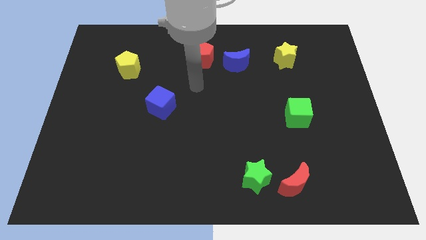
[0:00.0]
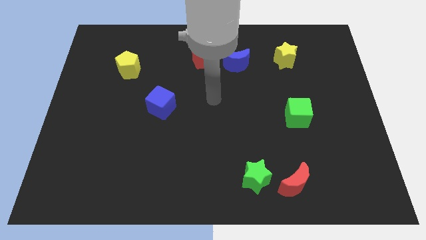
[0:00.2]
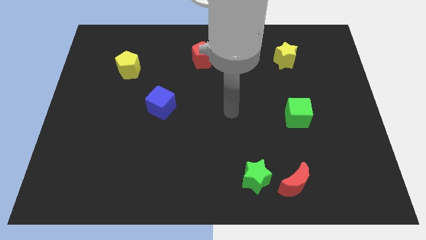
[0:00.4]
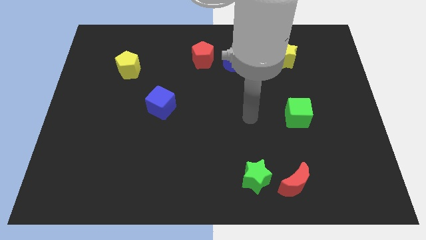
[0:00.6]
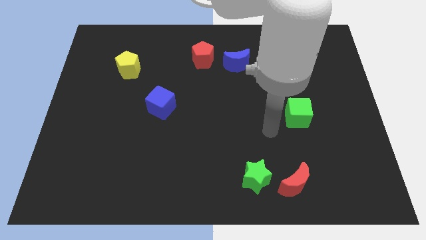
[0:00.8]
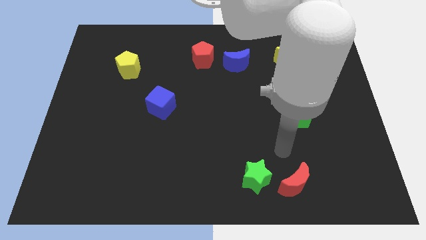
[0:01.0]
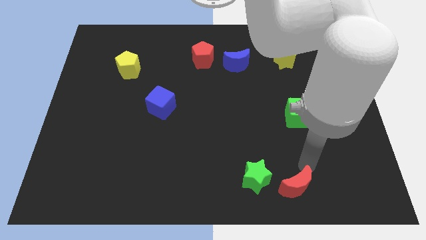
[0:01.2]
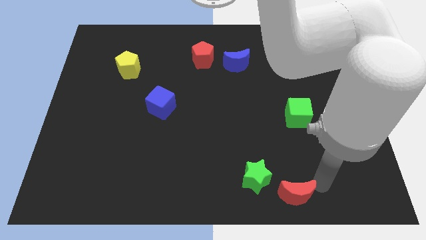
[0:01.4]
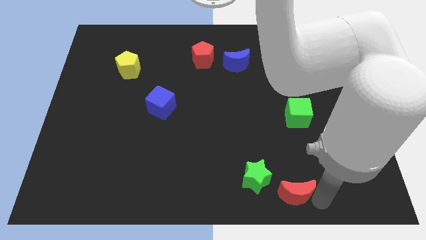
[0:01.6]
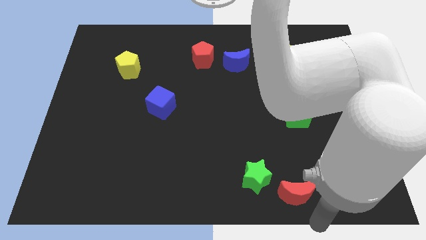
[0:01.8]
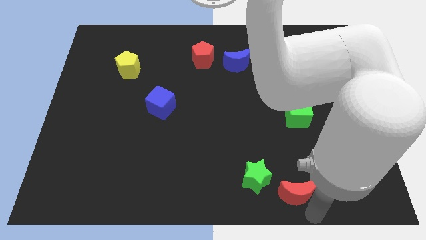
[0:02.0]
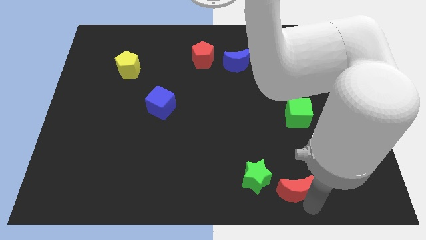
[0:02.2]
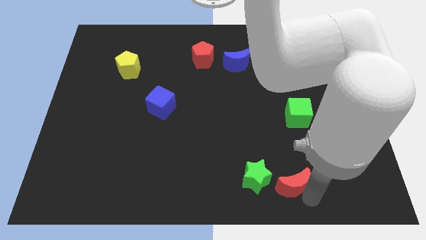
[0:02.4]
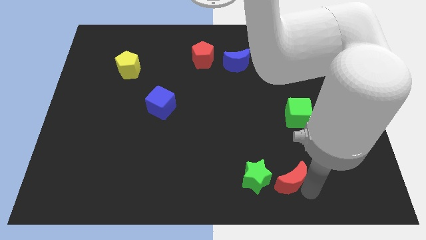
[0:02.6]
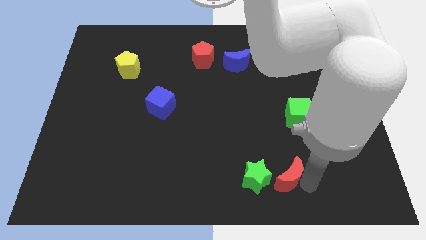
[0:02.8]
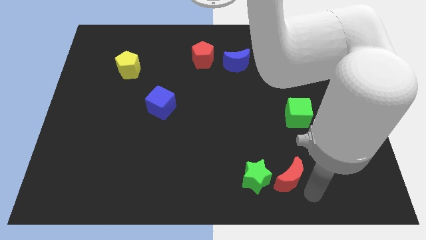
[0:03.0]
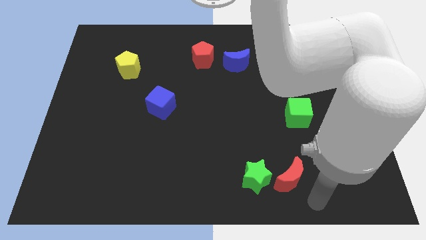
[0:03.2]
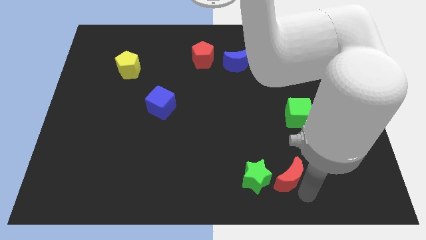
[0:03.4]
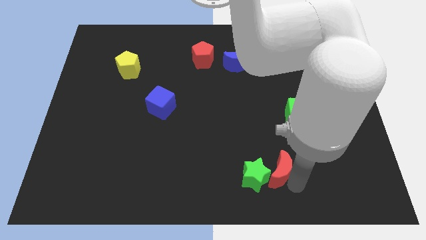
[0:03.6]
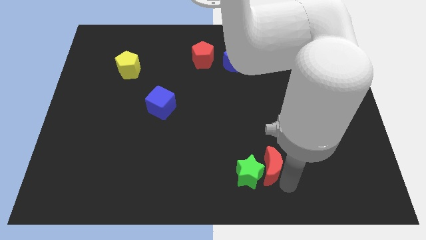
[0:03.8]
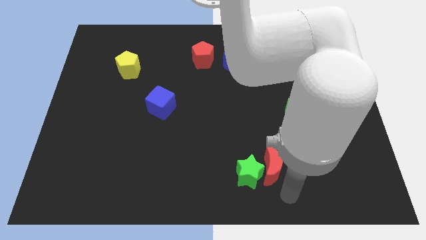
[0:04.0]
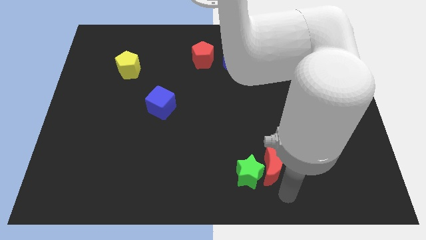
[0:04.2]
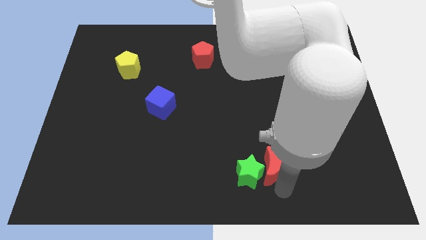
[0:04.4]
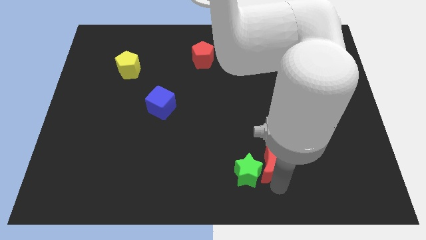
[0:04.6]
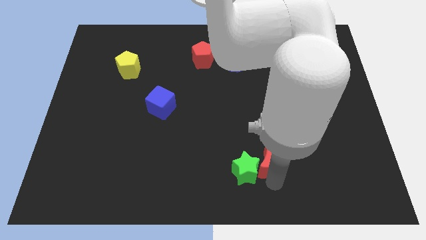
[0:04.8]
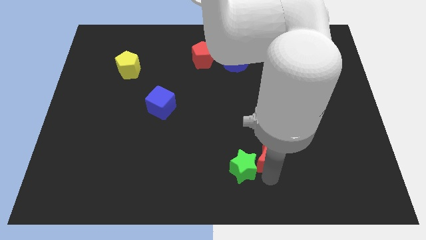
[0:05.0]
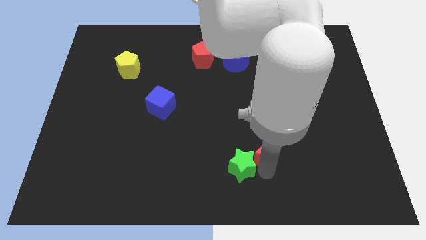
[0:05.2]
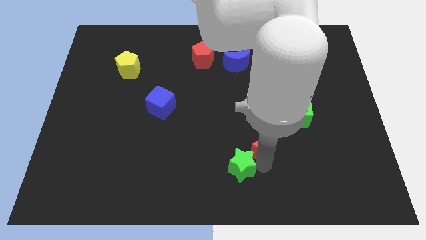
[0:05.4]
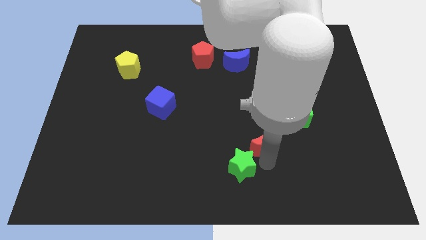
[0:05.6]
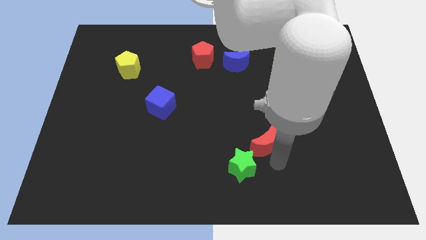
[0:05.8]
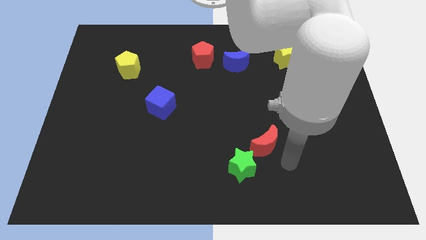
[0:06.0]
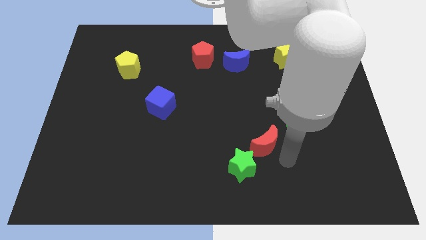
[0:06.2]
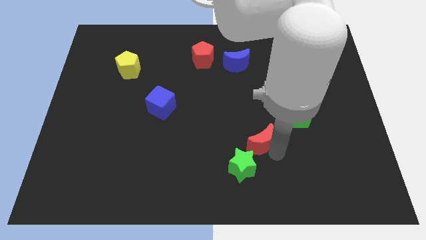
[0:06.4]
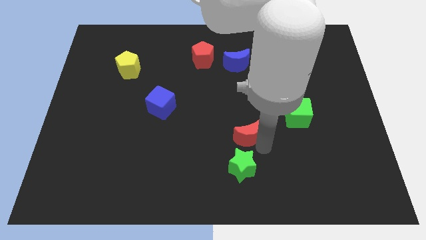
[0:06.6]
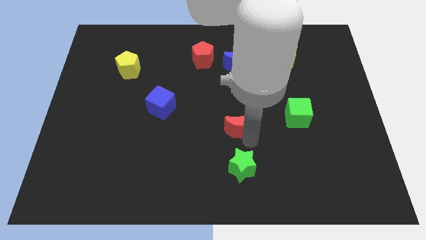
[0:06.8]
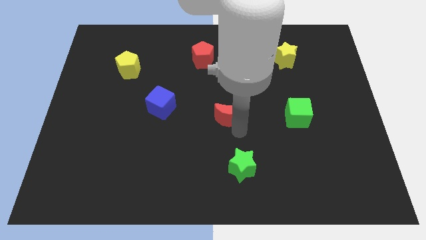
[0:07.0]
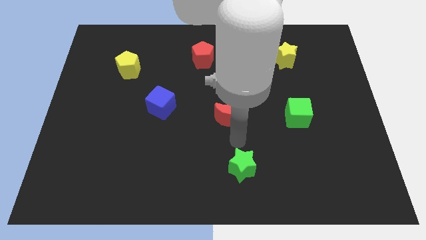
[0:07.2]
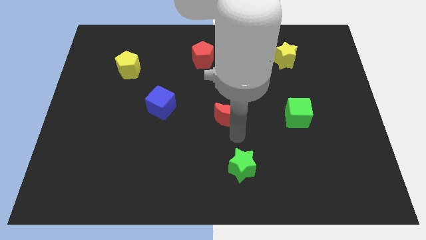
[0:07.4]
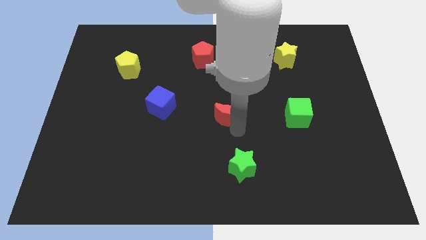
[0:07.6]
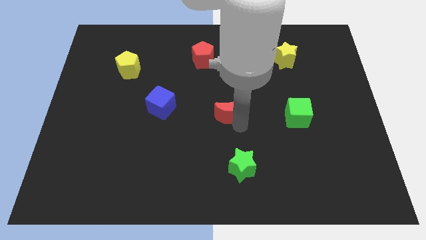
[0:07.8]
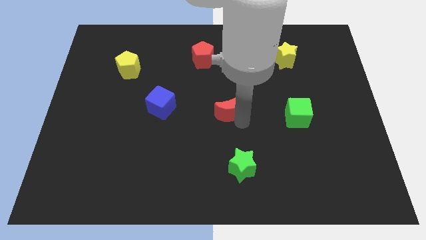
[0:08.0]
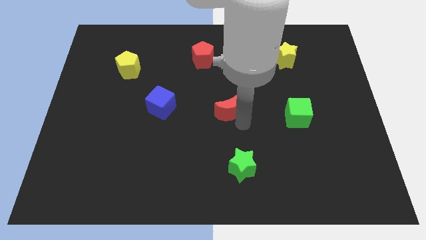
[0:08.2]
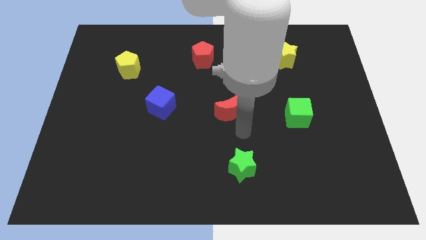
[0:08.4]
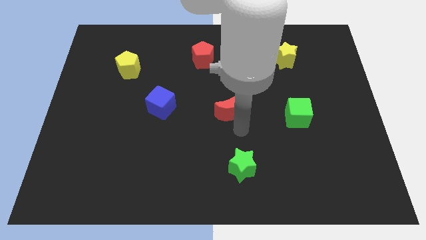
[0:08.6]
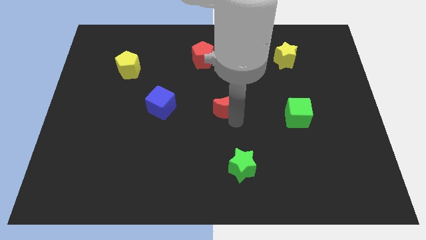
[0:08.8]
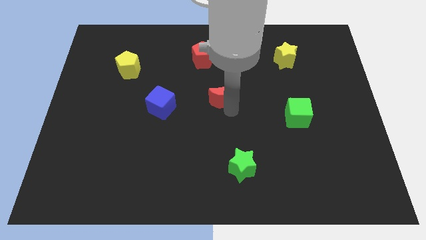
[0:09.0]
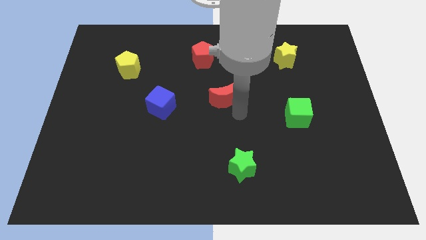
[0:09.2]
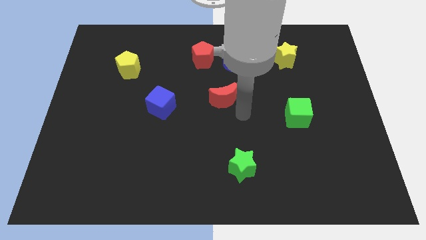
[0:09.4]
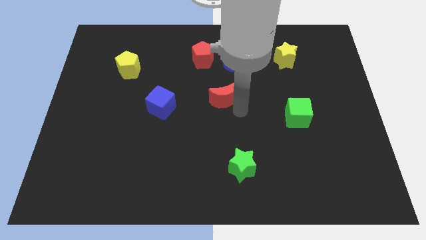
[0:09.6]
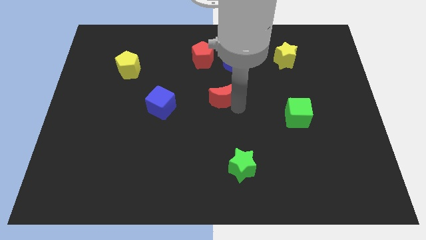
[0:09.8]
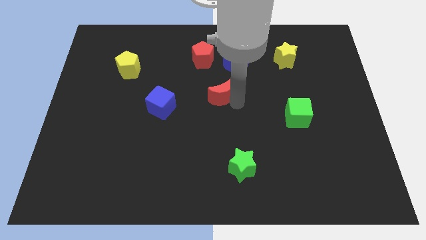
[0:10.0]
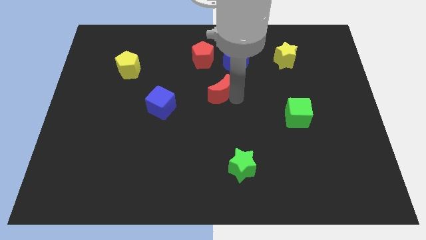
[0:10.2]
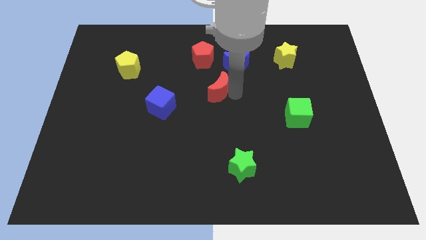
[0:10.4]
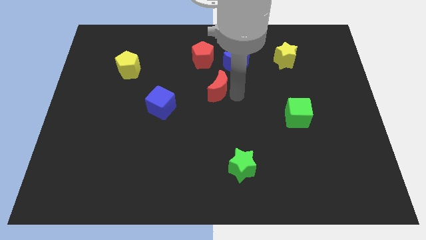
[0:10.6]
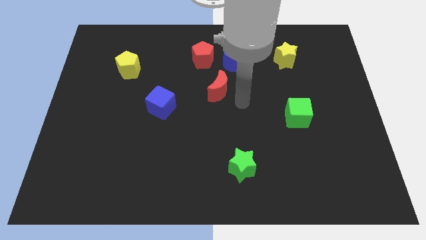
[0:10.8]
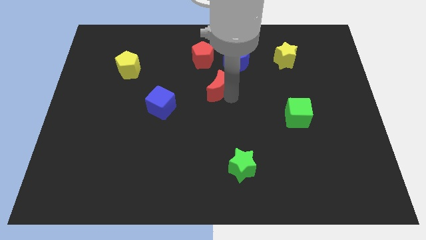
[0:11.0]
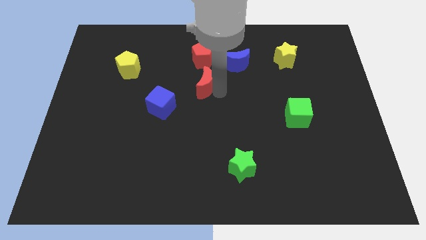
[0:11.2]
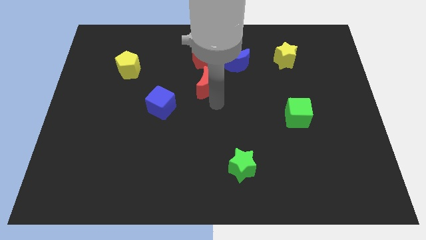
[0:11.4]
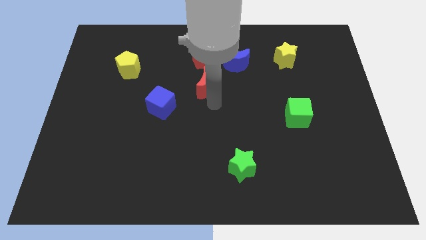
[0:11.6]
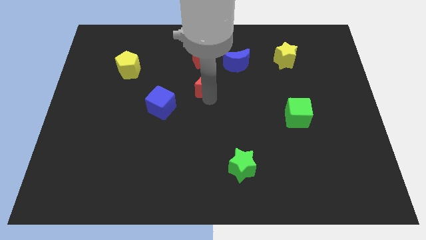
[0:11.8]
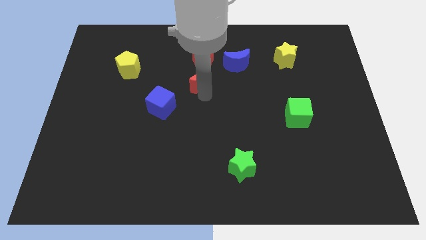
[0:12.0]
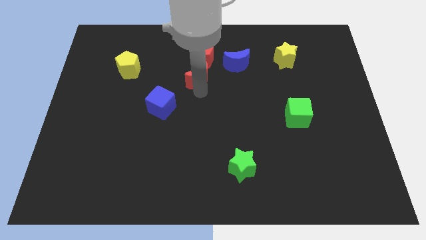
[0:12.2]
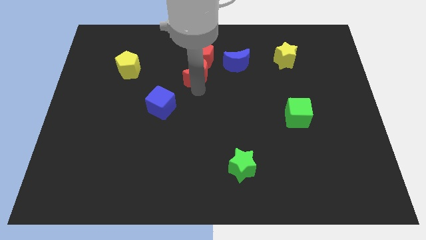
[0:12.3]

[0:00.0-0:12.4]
push the red moon left of the blue moon

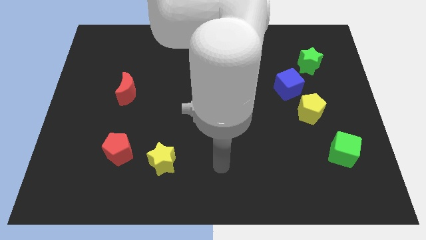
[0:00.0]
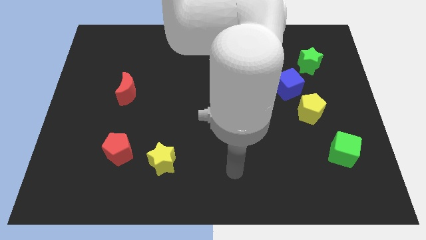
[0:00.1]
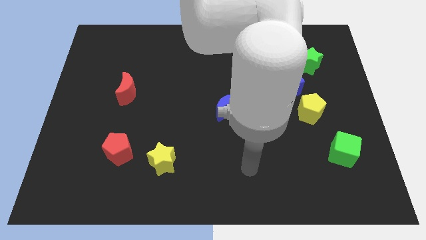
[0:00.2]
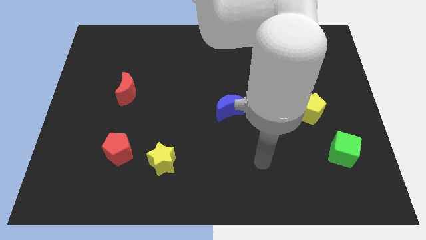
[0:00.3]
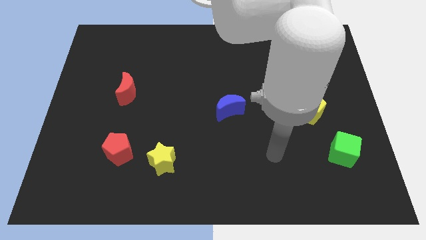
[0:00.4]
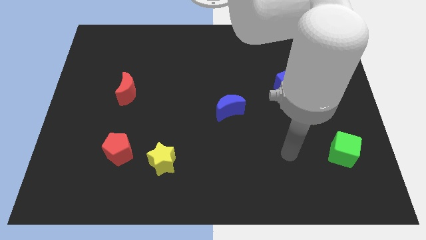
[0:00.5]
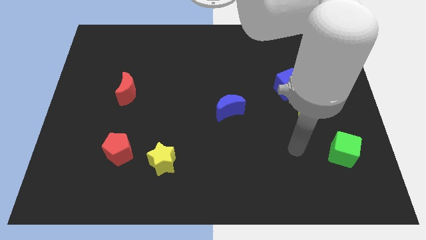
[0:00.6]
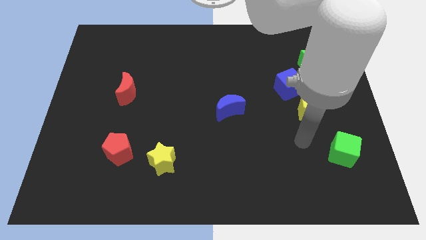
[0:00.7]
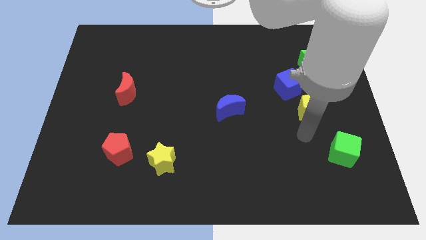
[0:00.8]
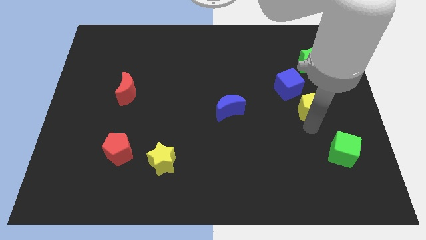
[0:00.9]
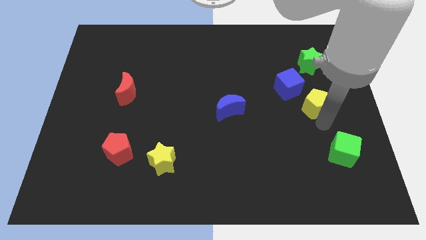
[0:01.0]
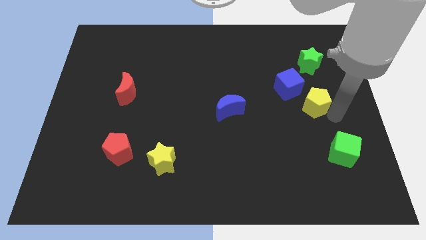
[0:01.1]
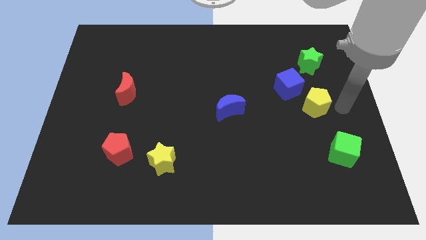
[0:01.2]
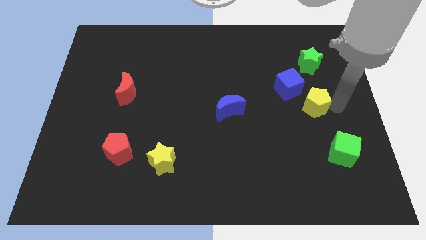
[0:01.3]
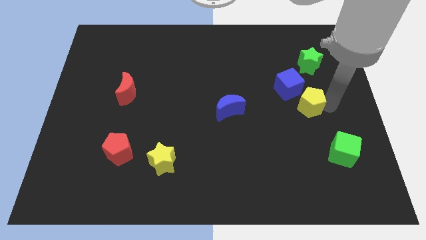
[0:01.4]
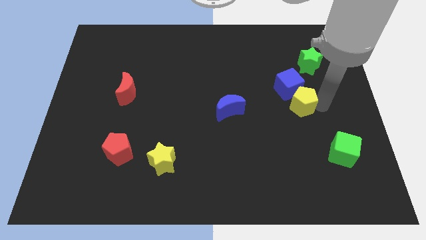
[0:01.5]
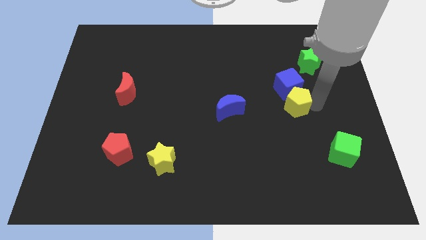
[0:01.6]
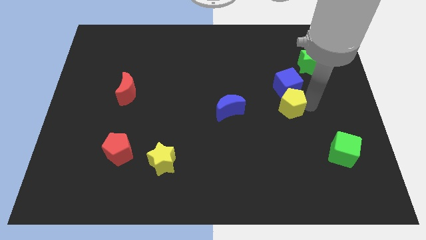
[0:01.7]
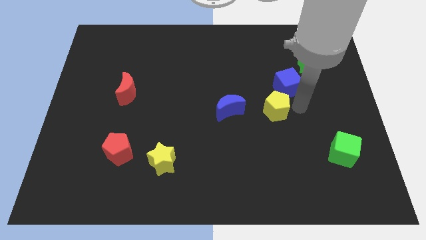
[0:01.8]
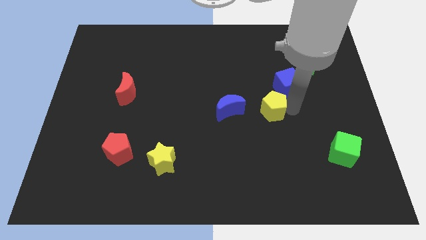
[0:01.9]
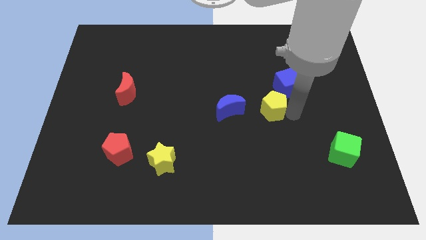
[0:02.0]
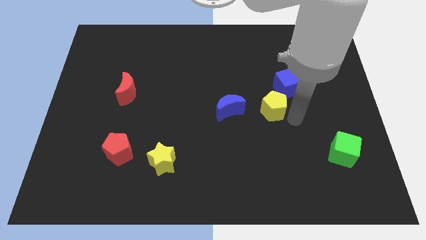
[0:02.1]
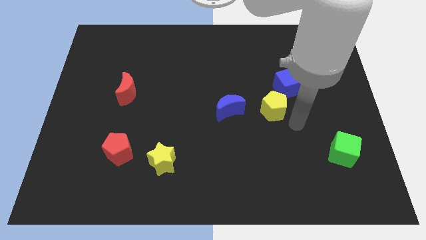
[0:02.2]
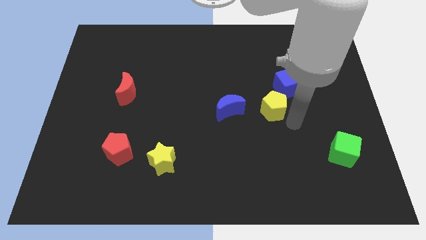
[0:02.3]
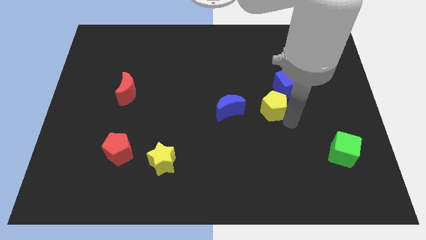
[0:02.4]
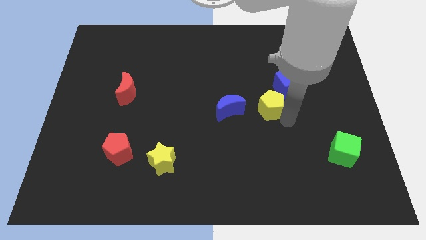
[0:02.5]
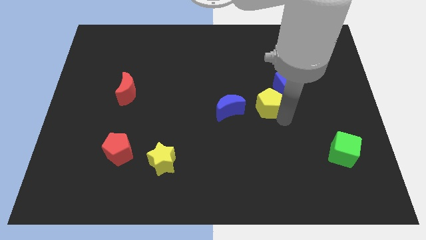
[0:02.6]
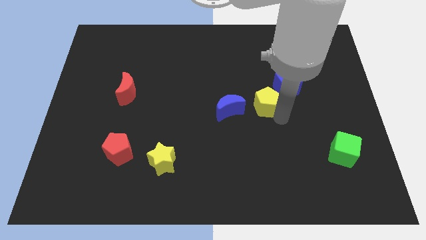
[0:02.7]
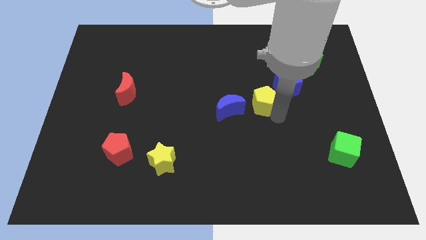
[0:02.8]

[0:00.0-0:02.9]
slide the yellow pentagon to the top right of the blue moon
